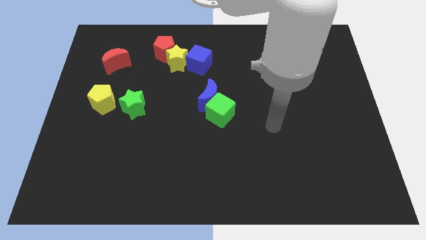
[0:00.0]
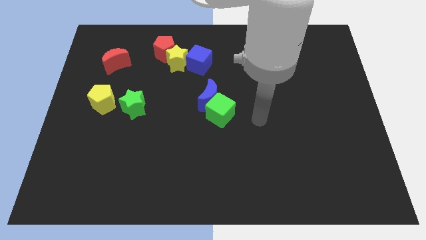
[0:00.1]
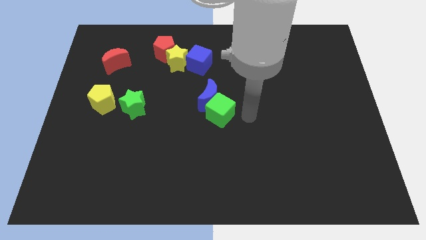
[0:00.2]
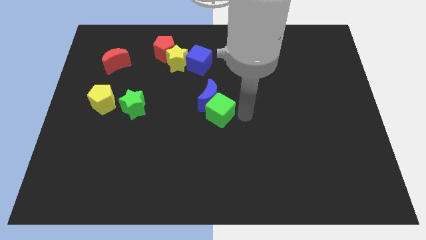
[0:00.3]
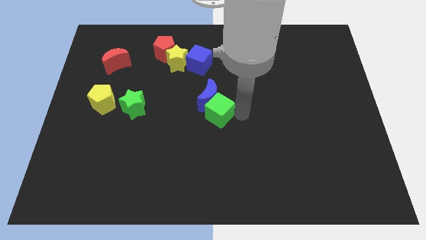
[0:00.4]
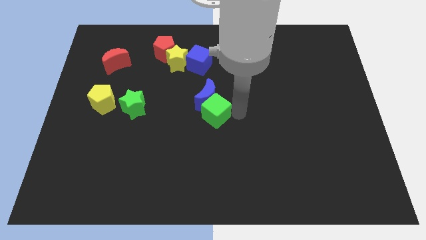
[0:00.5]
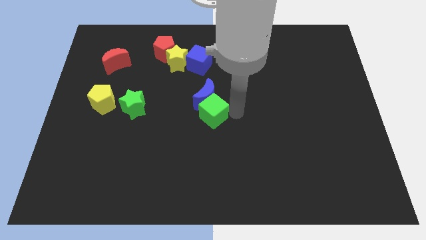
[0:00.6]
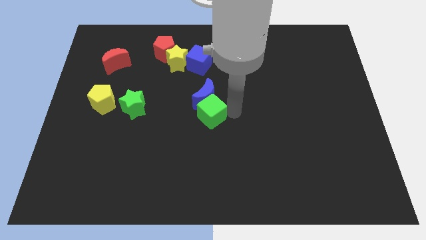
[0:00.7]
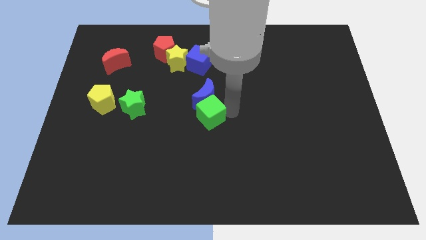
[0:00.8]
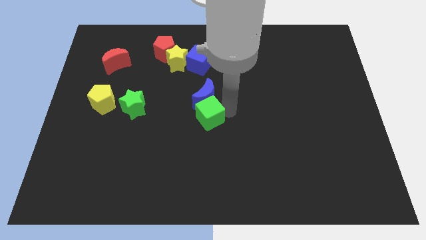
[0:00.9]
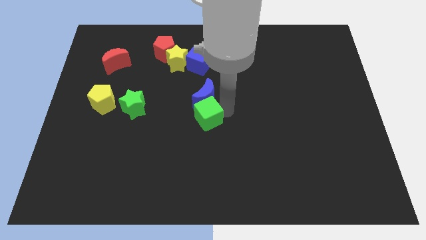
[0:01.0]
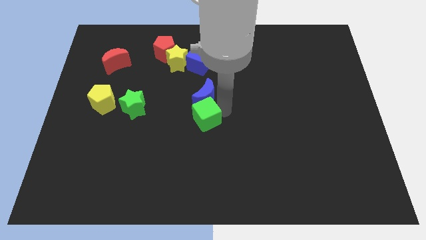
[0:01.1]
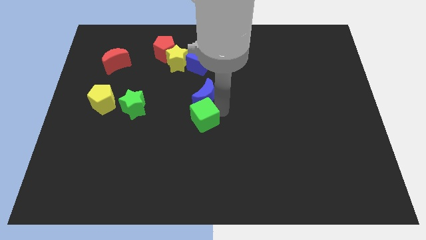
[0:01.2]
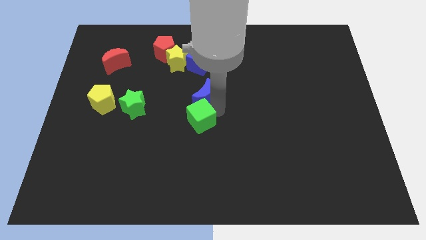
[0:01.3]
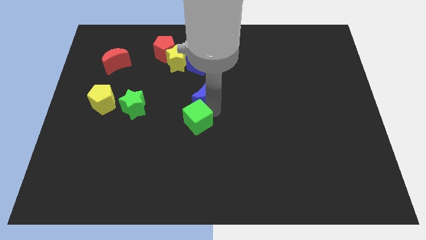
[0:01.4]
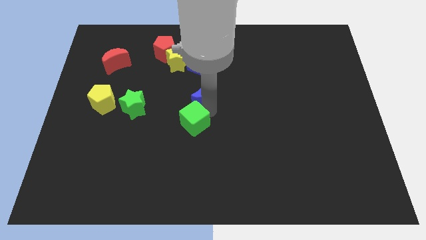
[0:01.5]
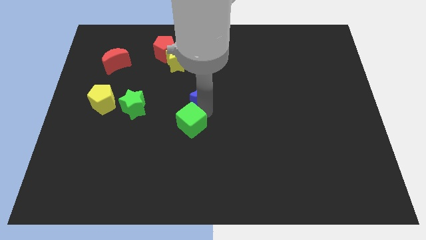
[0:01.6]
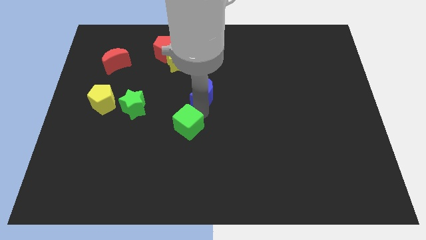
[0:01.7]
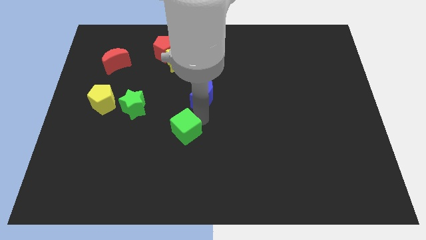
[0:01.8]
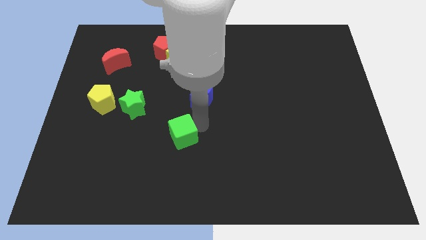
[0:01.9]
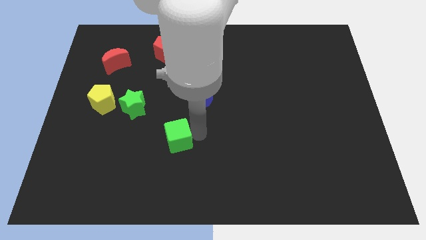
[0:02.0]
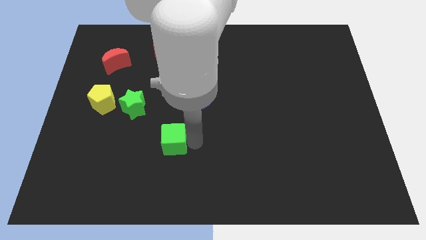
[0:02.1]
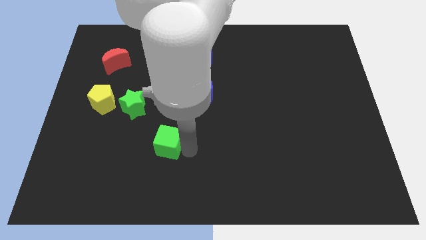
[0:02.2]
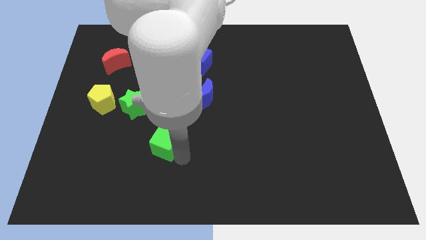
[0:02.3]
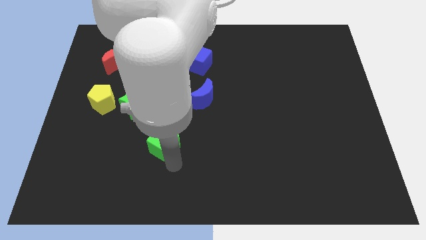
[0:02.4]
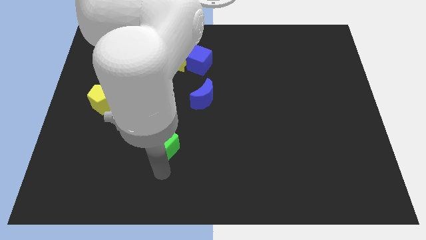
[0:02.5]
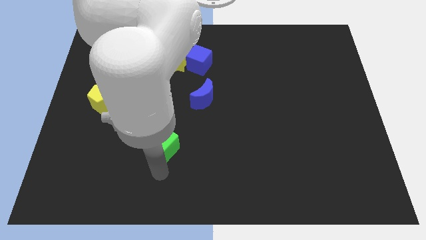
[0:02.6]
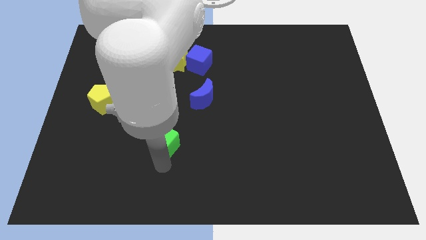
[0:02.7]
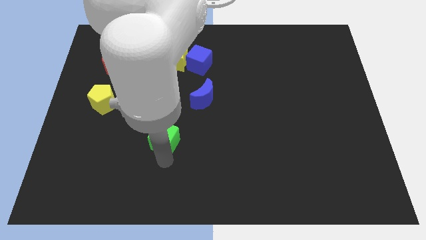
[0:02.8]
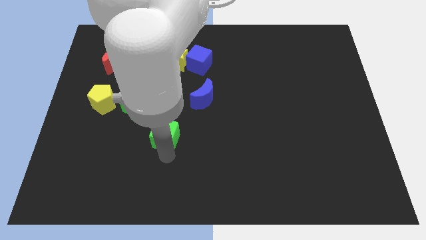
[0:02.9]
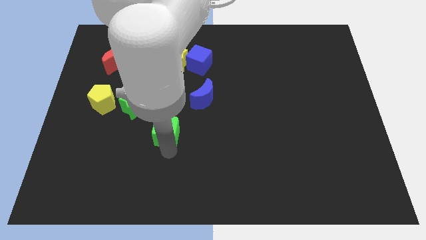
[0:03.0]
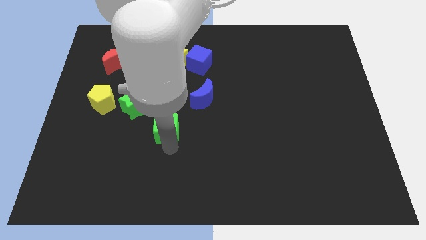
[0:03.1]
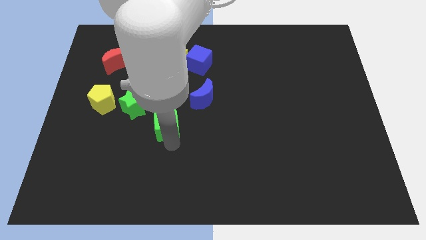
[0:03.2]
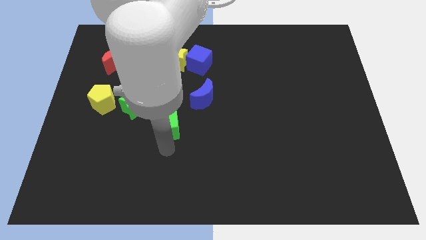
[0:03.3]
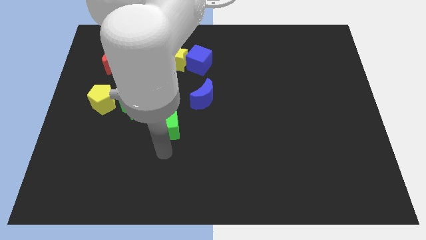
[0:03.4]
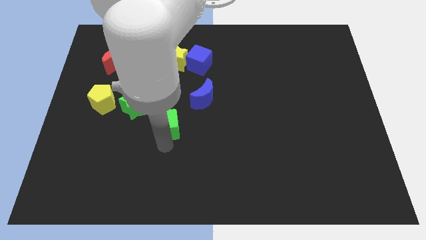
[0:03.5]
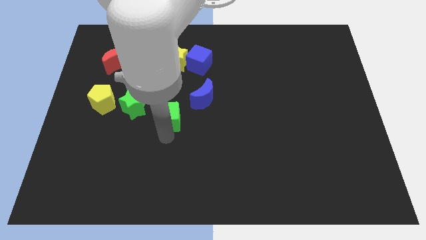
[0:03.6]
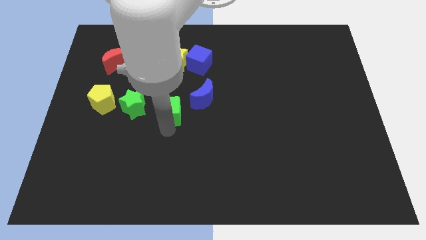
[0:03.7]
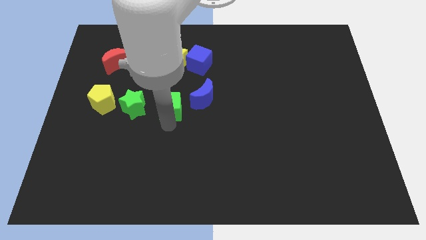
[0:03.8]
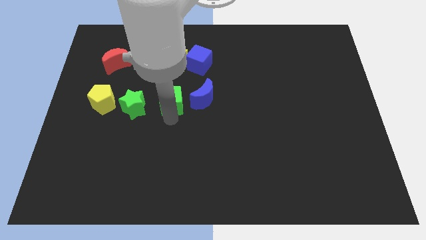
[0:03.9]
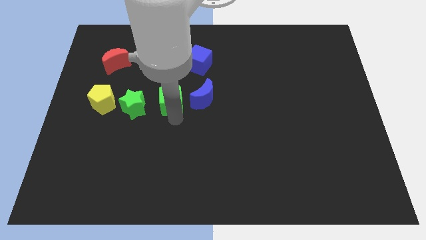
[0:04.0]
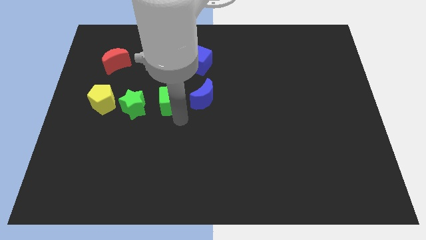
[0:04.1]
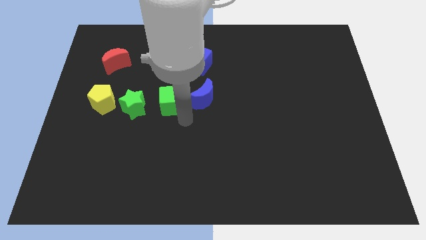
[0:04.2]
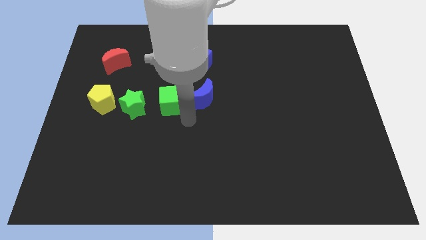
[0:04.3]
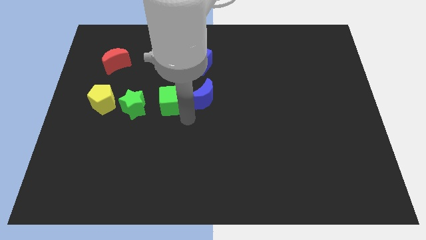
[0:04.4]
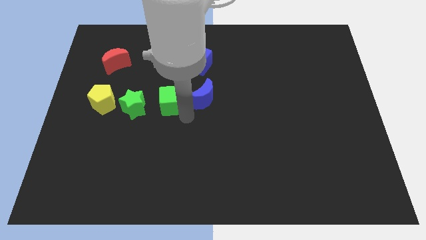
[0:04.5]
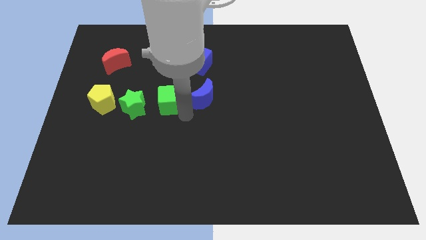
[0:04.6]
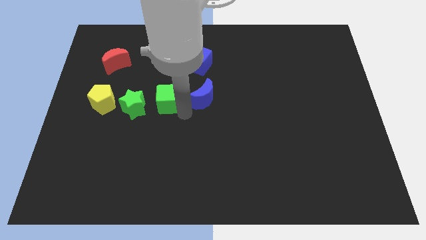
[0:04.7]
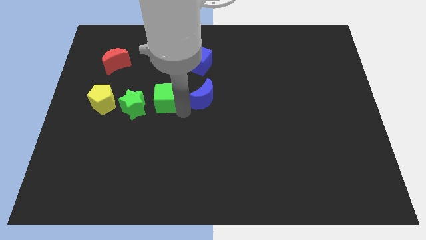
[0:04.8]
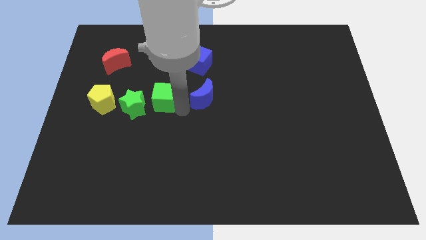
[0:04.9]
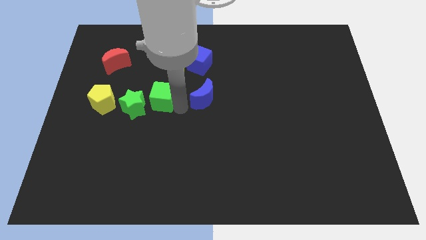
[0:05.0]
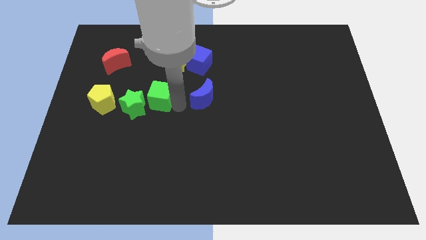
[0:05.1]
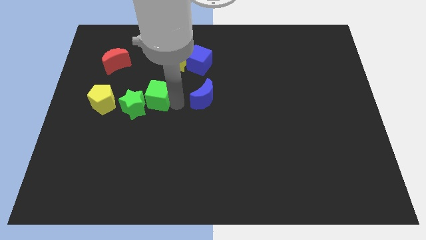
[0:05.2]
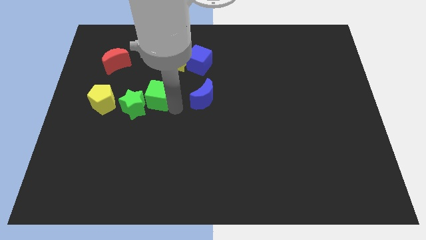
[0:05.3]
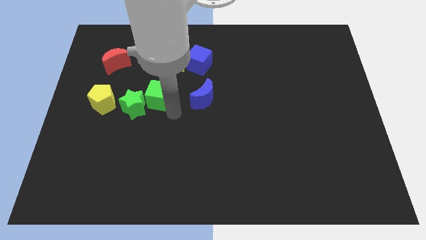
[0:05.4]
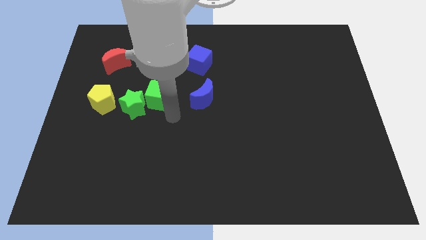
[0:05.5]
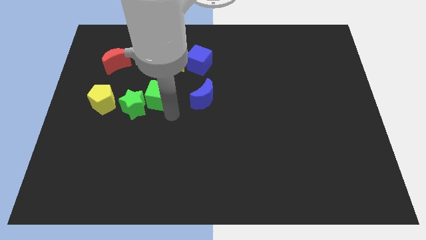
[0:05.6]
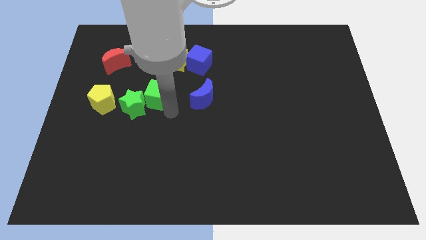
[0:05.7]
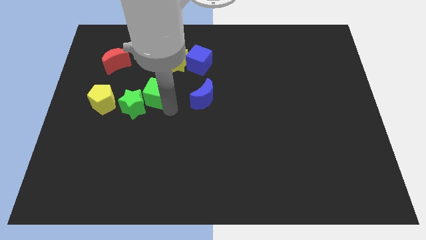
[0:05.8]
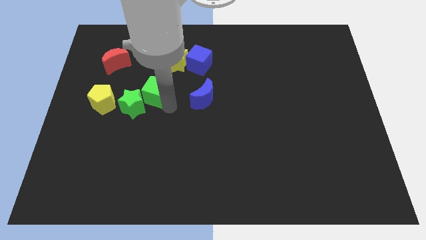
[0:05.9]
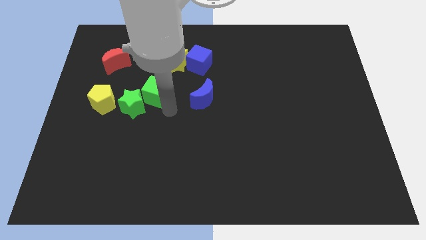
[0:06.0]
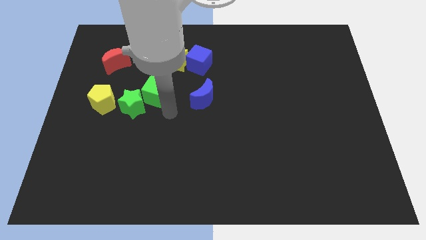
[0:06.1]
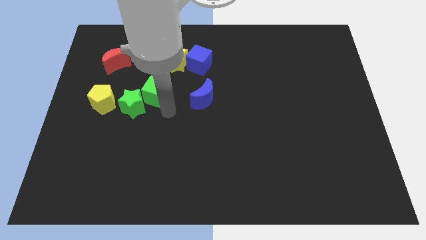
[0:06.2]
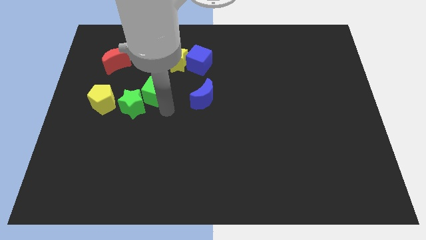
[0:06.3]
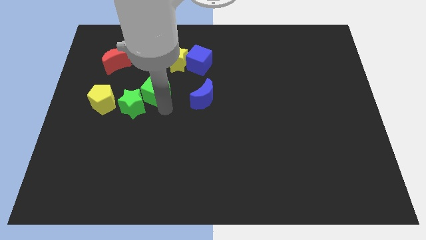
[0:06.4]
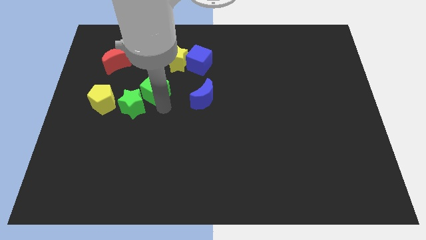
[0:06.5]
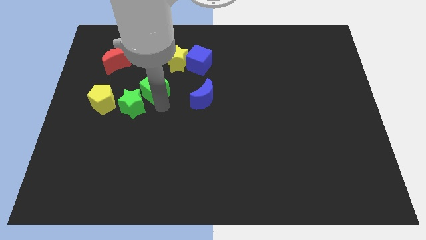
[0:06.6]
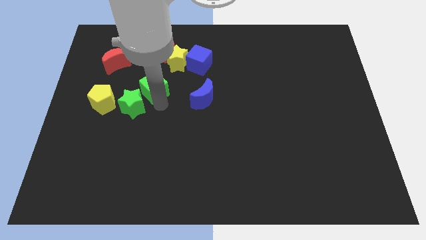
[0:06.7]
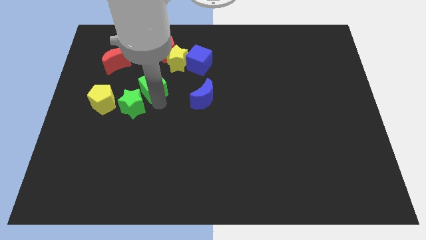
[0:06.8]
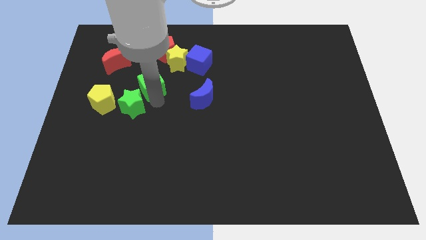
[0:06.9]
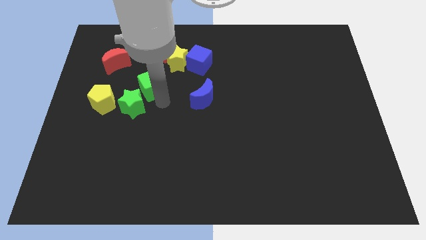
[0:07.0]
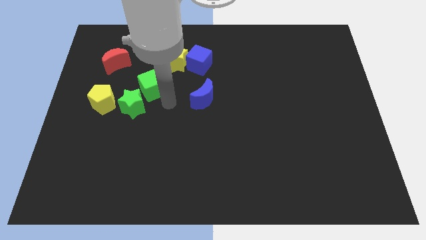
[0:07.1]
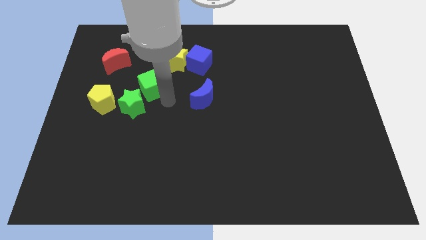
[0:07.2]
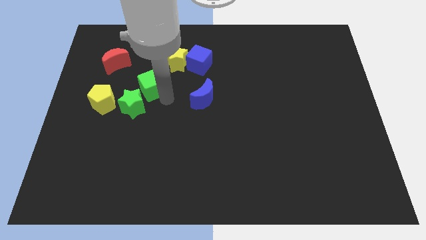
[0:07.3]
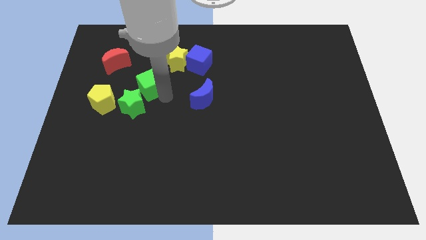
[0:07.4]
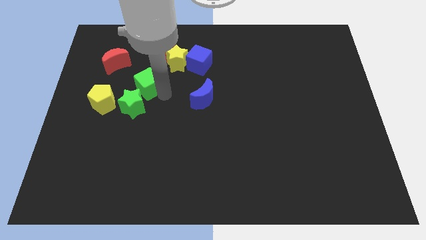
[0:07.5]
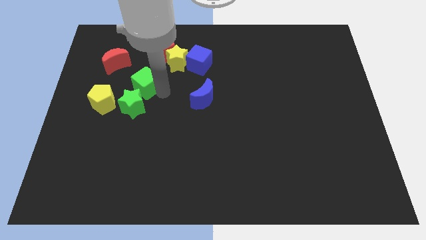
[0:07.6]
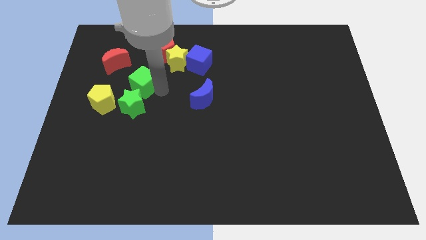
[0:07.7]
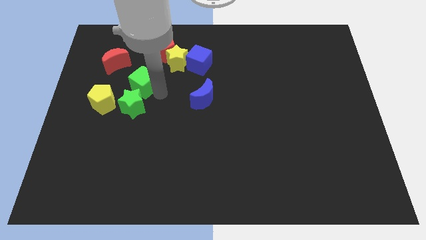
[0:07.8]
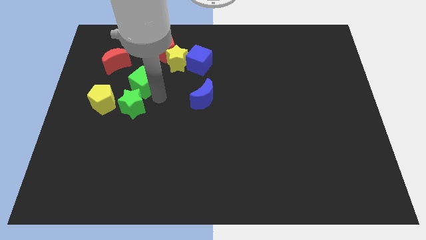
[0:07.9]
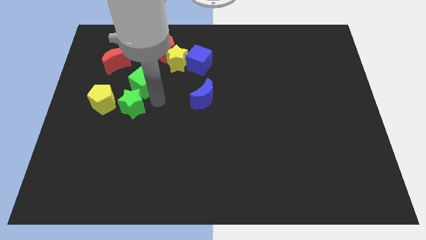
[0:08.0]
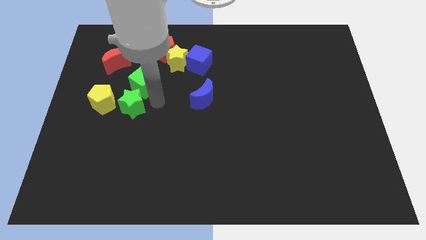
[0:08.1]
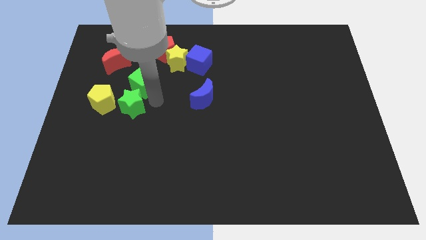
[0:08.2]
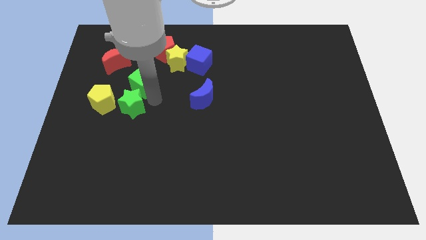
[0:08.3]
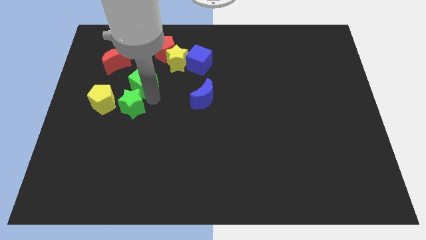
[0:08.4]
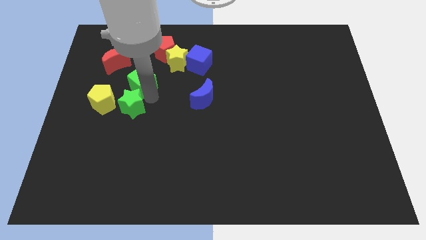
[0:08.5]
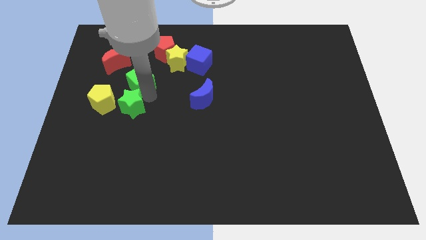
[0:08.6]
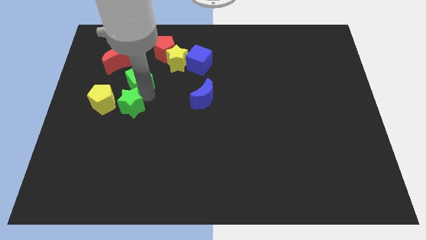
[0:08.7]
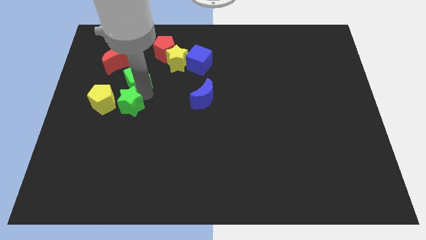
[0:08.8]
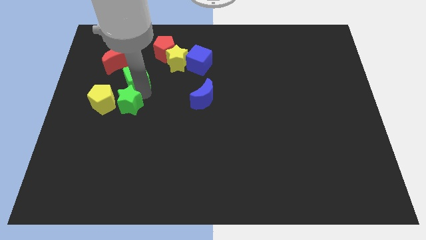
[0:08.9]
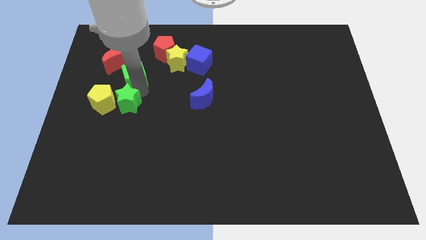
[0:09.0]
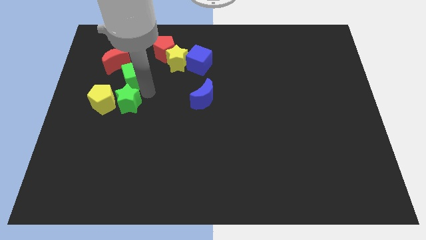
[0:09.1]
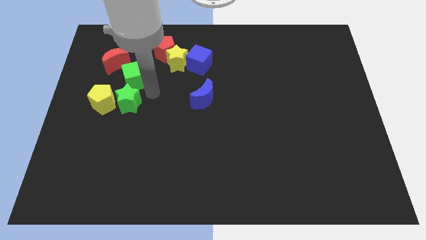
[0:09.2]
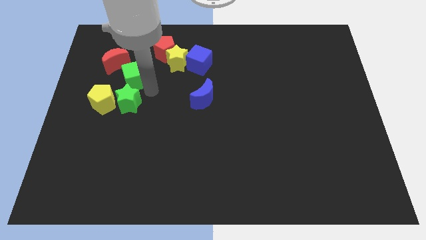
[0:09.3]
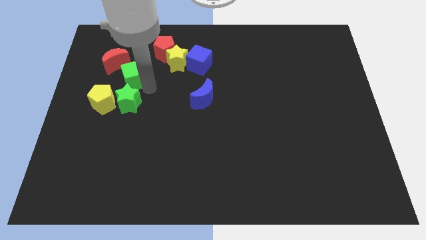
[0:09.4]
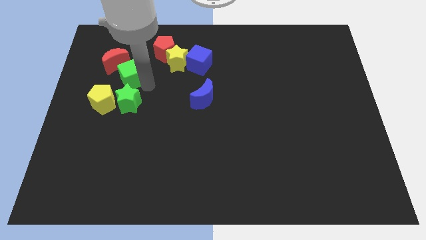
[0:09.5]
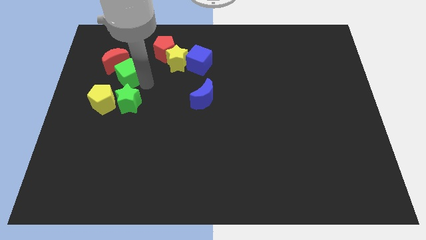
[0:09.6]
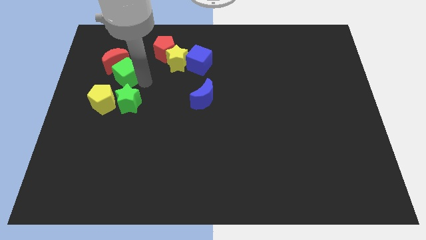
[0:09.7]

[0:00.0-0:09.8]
put the green cube to the red moon
